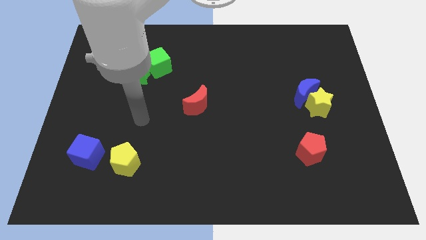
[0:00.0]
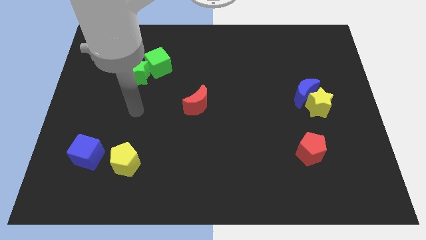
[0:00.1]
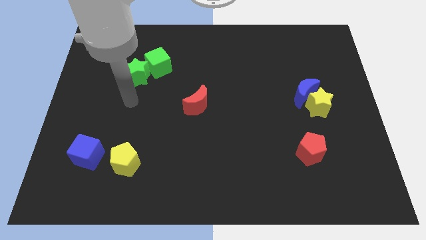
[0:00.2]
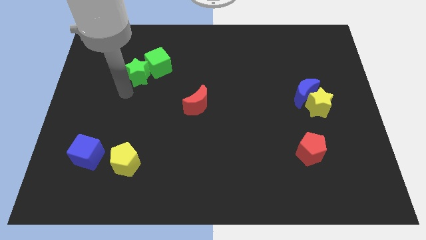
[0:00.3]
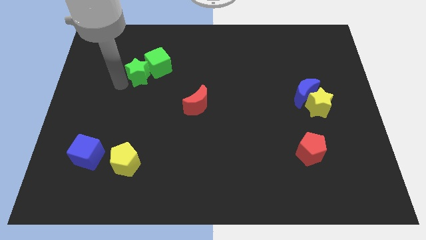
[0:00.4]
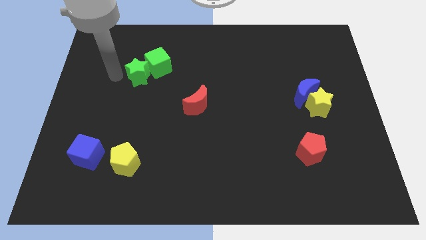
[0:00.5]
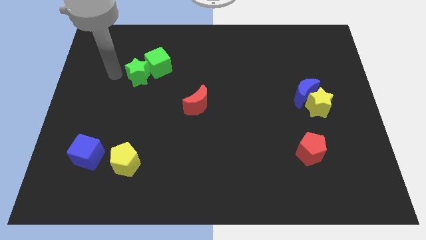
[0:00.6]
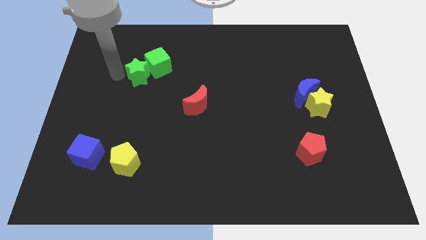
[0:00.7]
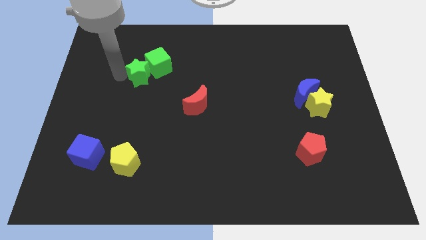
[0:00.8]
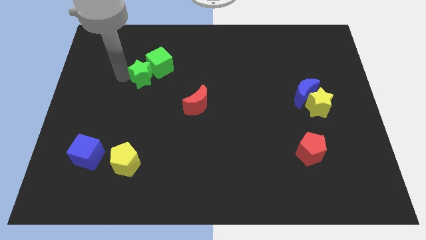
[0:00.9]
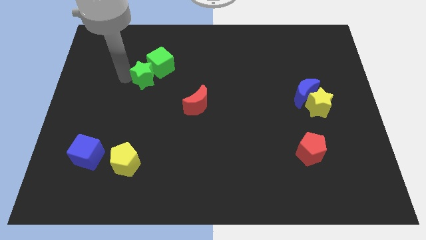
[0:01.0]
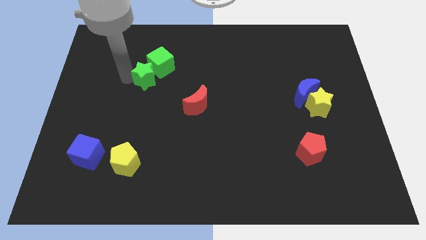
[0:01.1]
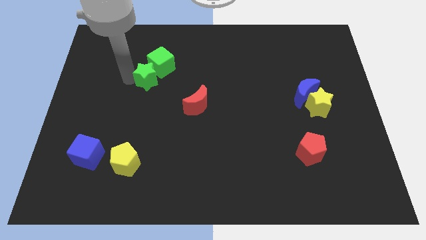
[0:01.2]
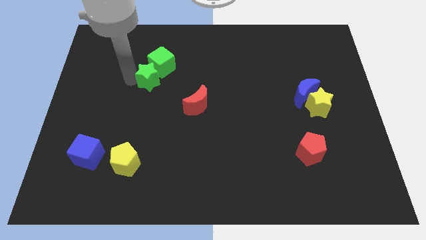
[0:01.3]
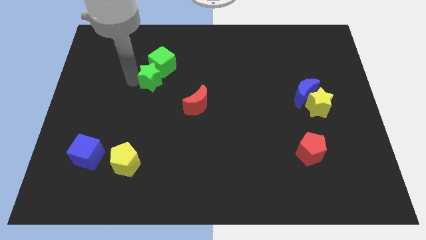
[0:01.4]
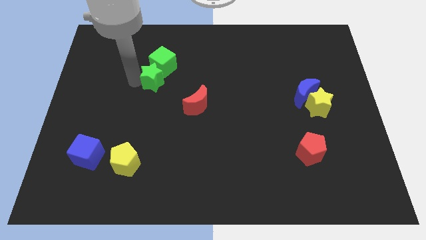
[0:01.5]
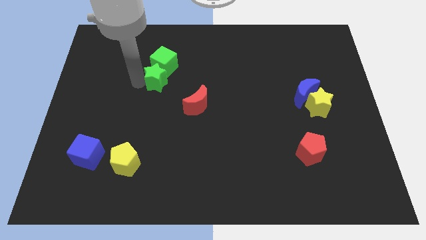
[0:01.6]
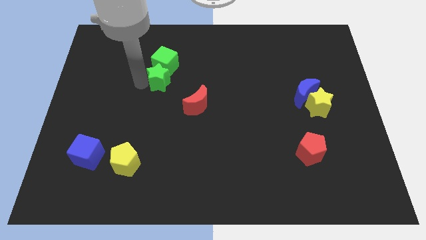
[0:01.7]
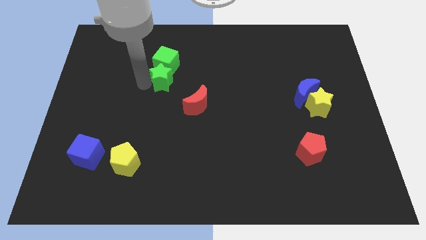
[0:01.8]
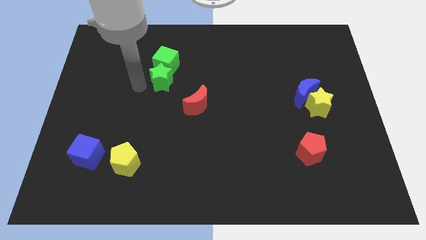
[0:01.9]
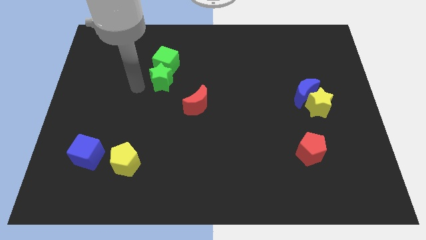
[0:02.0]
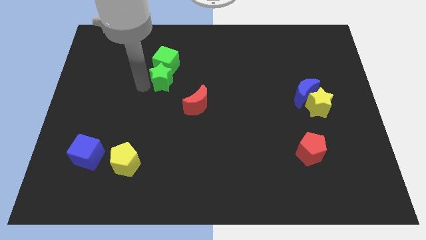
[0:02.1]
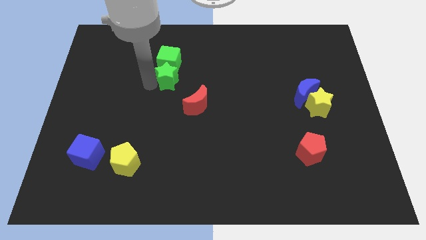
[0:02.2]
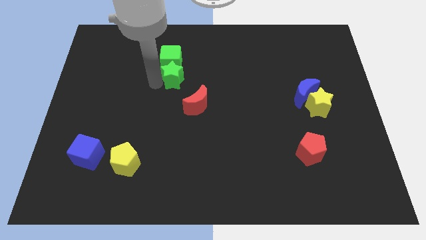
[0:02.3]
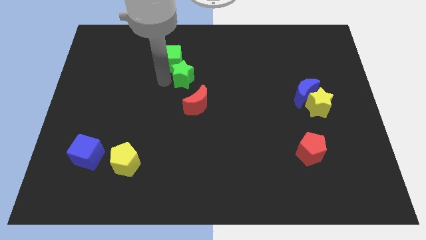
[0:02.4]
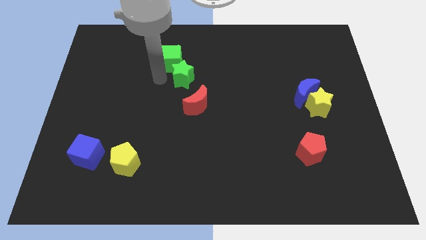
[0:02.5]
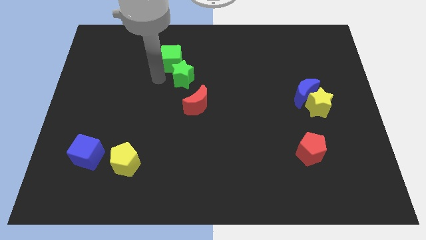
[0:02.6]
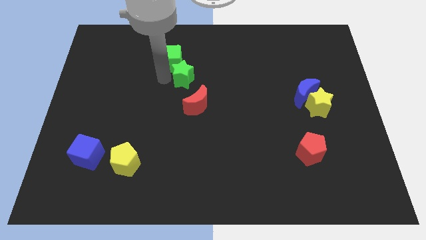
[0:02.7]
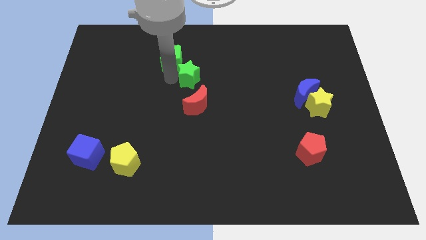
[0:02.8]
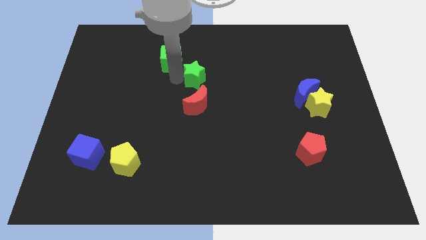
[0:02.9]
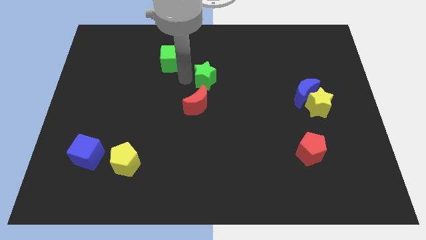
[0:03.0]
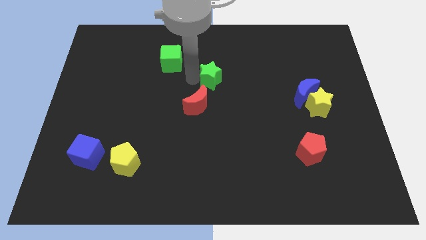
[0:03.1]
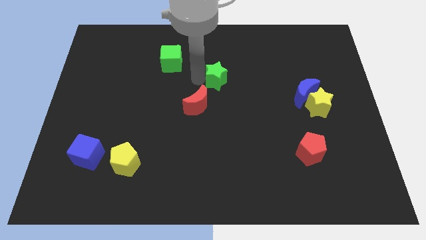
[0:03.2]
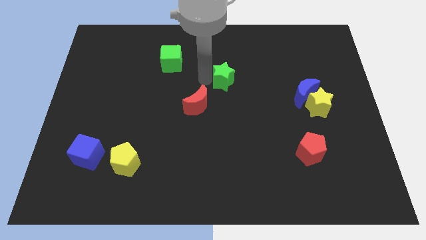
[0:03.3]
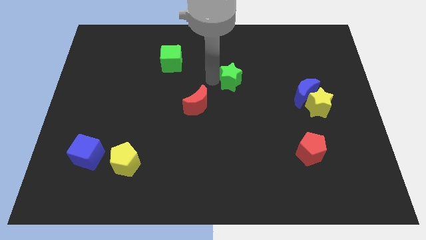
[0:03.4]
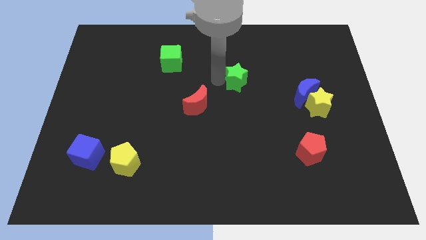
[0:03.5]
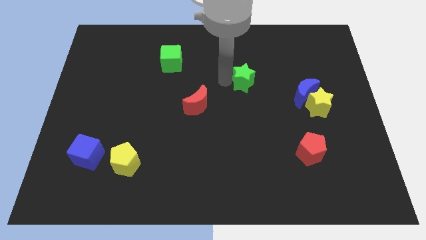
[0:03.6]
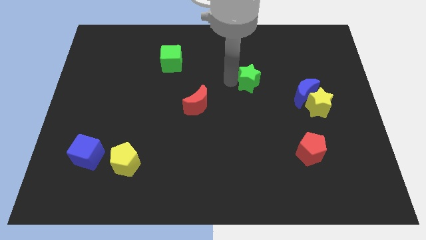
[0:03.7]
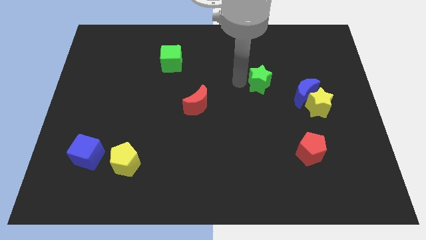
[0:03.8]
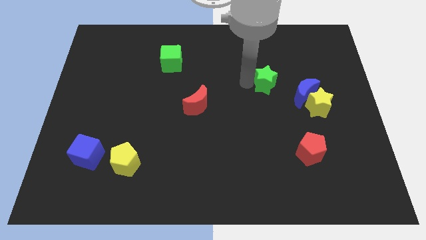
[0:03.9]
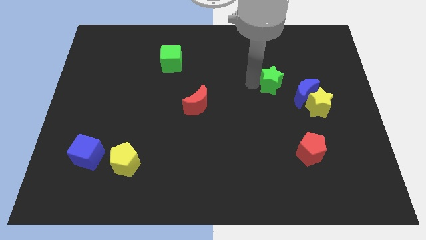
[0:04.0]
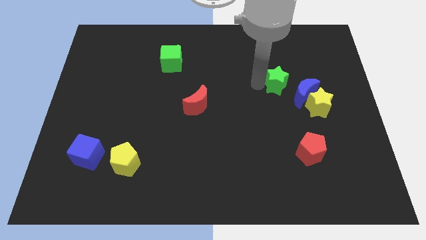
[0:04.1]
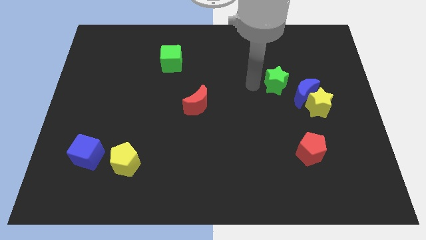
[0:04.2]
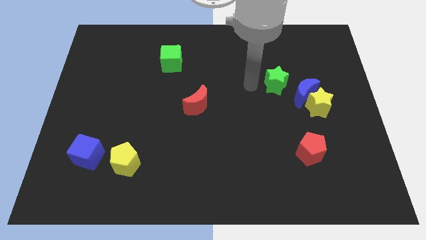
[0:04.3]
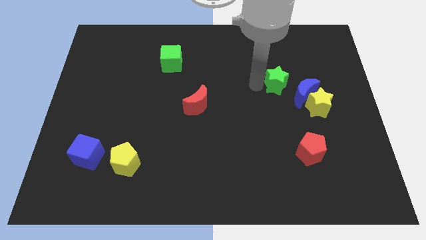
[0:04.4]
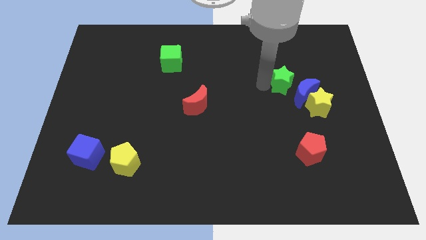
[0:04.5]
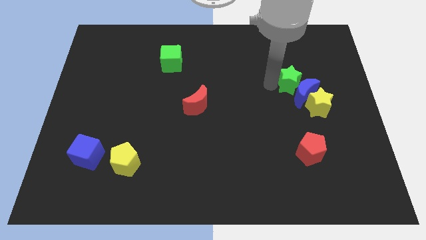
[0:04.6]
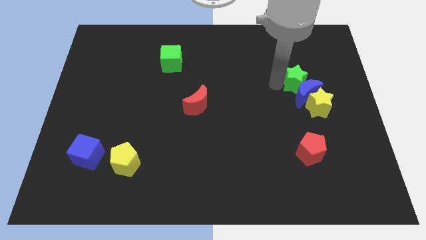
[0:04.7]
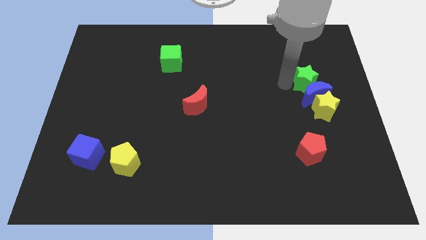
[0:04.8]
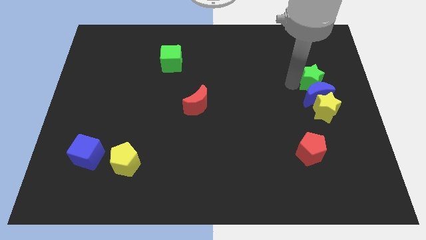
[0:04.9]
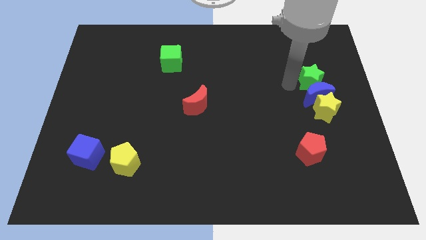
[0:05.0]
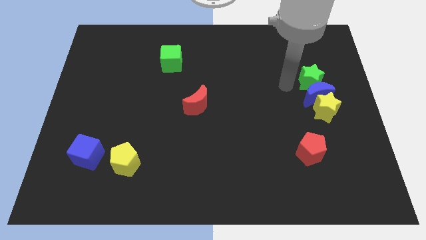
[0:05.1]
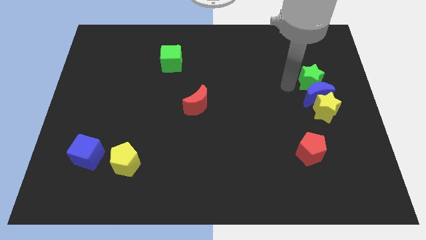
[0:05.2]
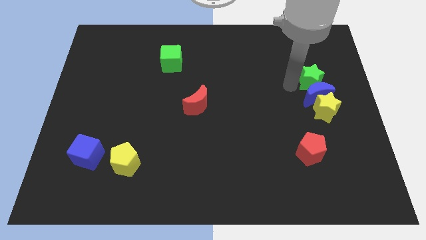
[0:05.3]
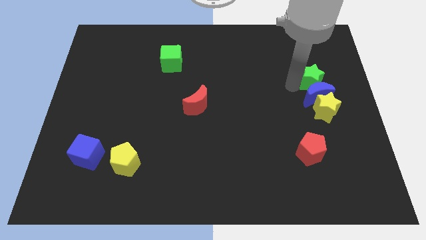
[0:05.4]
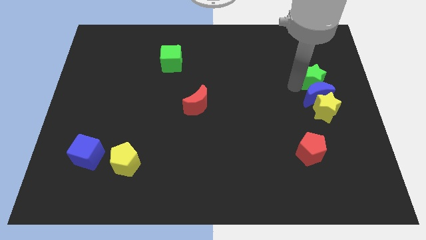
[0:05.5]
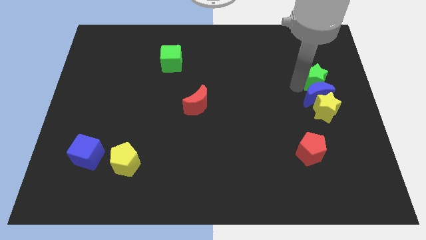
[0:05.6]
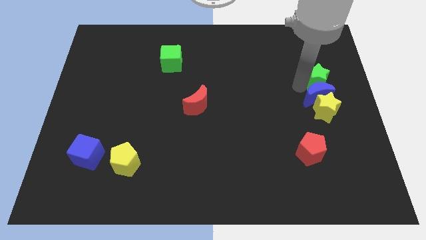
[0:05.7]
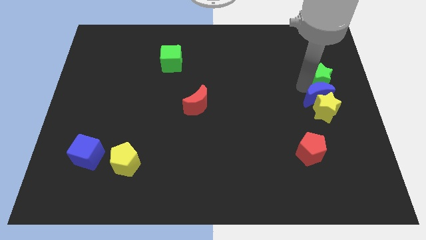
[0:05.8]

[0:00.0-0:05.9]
slide the green star to the right side of the board
